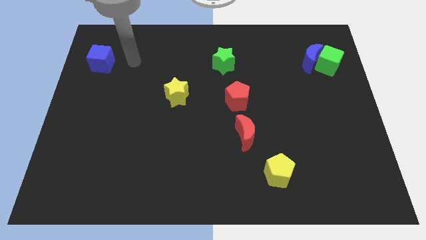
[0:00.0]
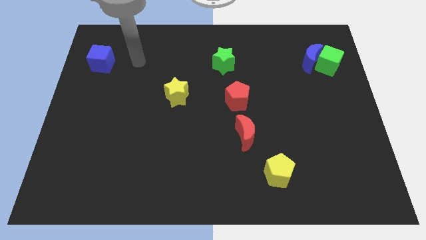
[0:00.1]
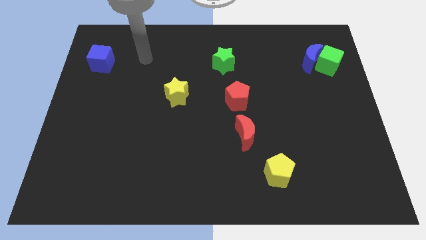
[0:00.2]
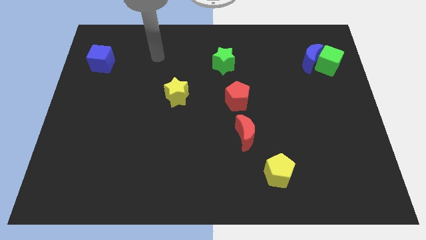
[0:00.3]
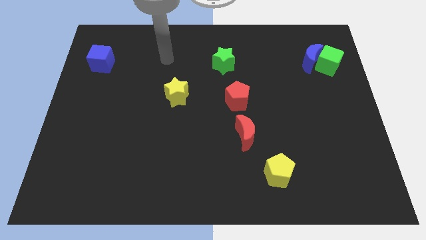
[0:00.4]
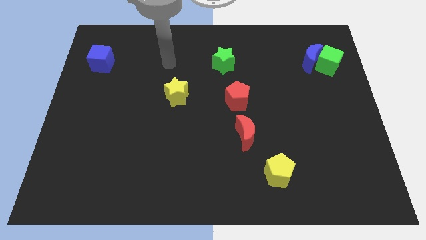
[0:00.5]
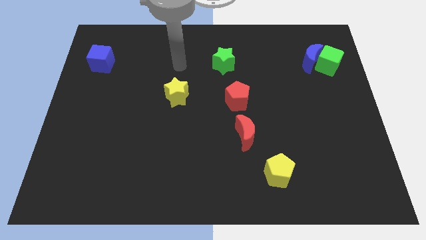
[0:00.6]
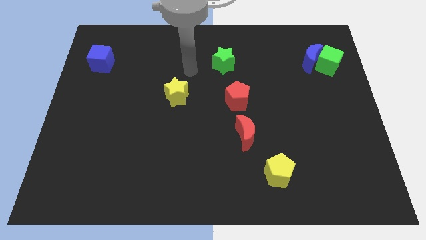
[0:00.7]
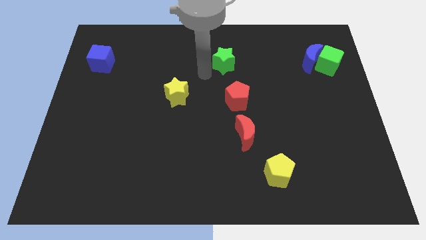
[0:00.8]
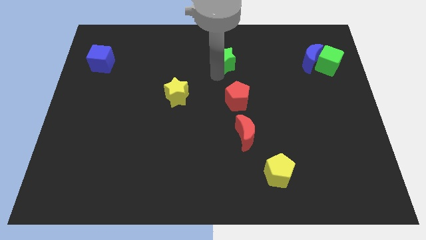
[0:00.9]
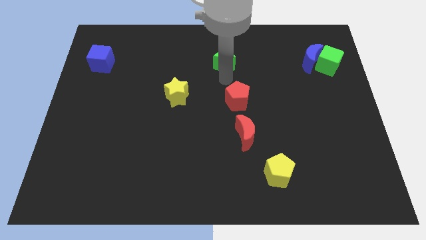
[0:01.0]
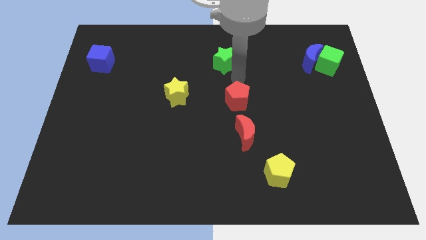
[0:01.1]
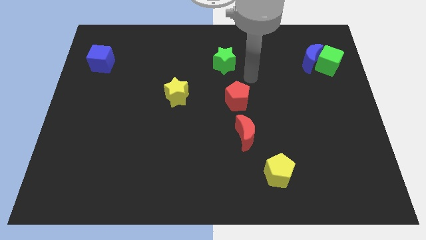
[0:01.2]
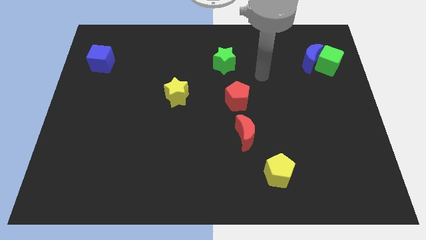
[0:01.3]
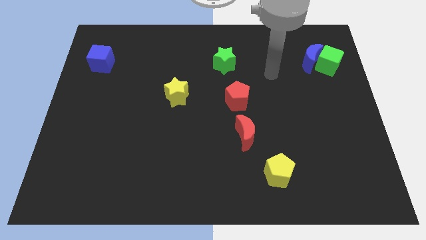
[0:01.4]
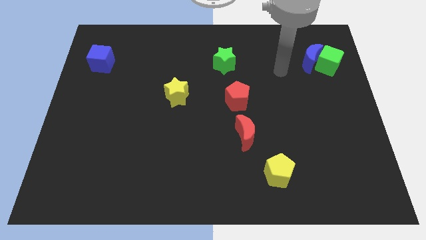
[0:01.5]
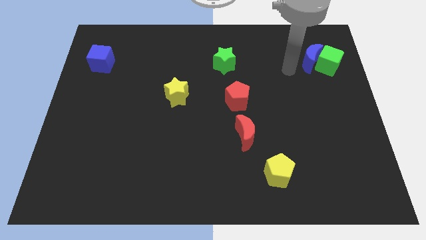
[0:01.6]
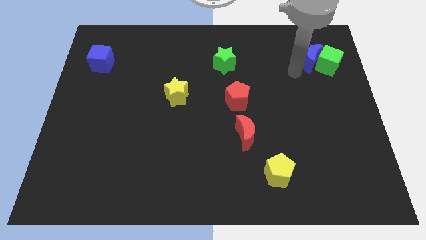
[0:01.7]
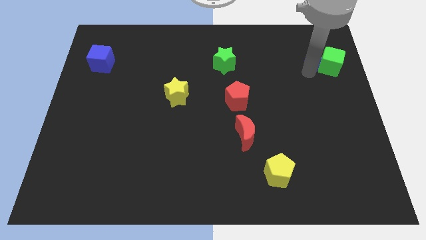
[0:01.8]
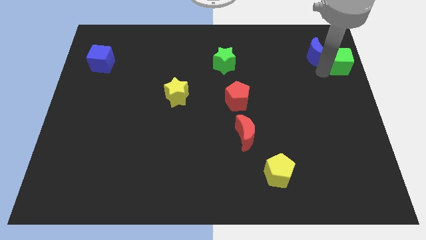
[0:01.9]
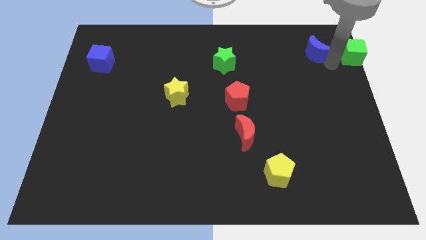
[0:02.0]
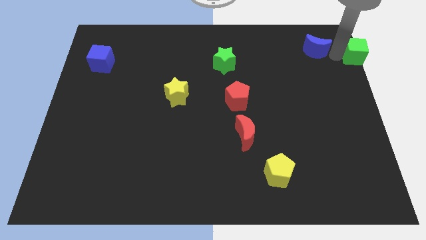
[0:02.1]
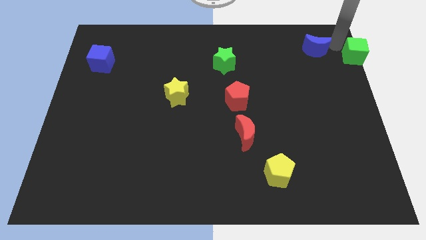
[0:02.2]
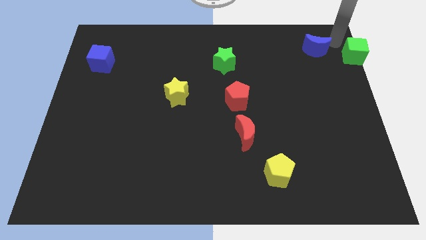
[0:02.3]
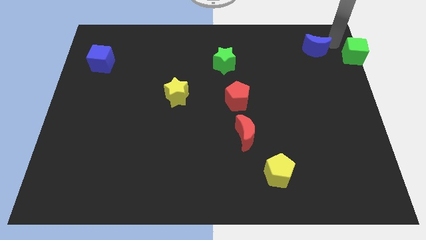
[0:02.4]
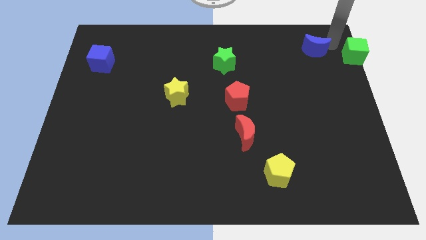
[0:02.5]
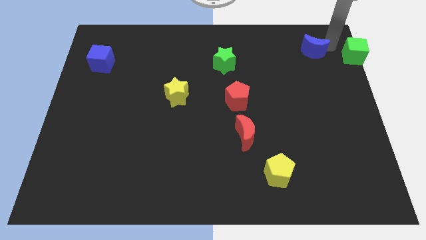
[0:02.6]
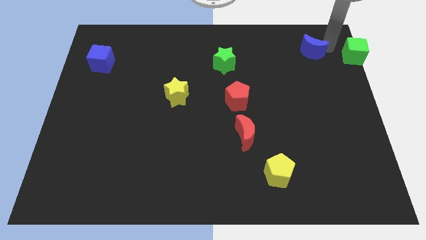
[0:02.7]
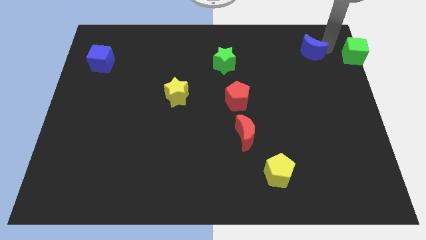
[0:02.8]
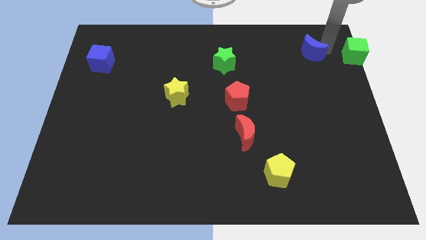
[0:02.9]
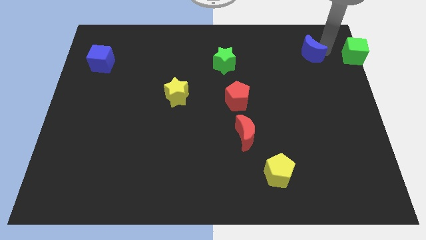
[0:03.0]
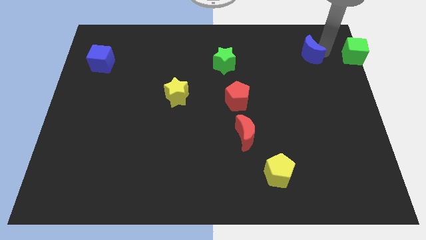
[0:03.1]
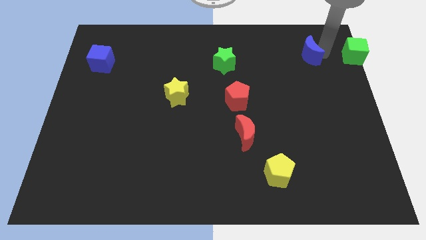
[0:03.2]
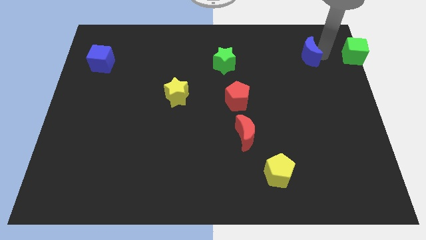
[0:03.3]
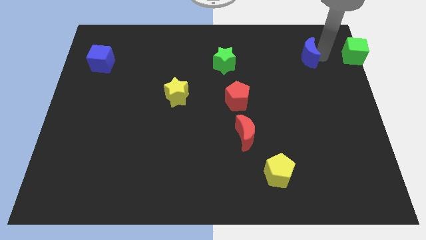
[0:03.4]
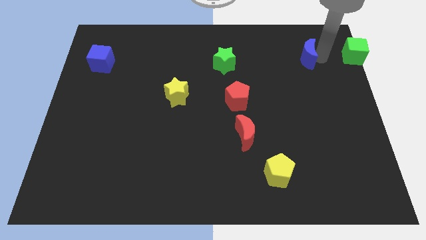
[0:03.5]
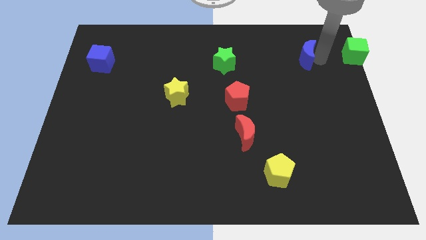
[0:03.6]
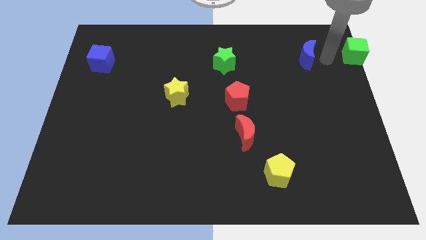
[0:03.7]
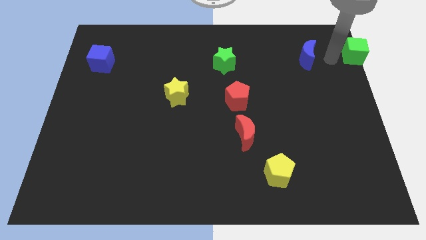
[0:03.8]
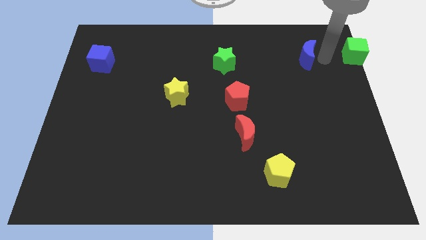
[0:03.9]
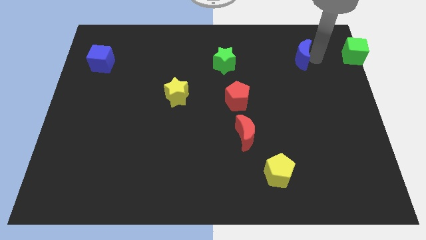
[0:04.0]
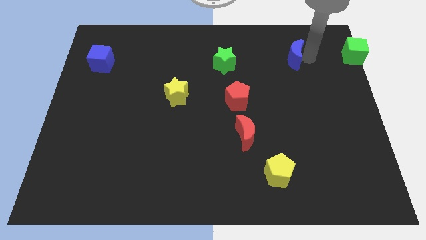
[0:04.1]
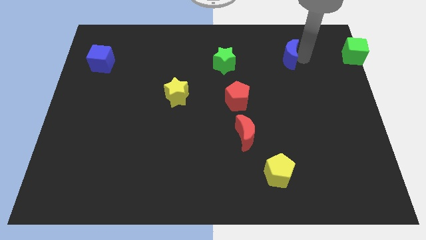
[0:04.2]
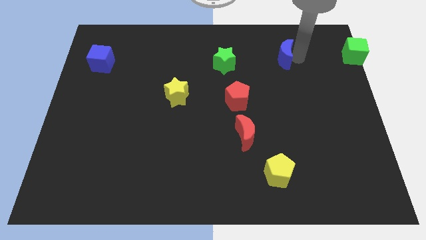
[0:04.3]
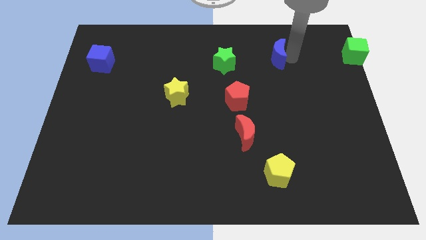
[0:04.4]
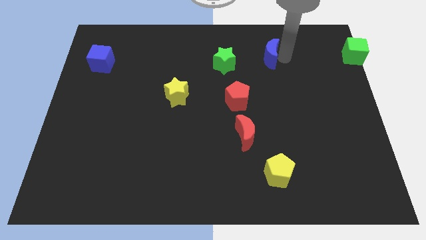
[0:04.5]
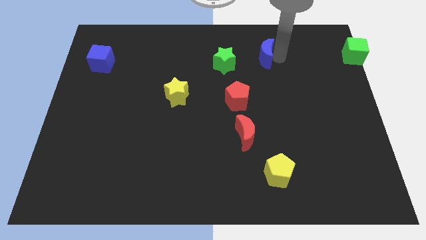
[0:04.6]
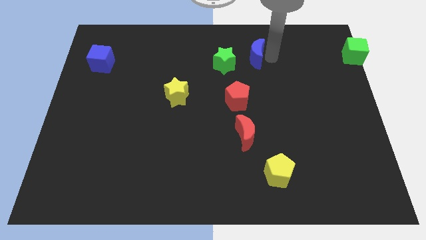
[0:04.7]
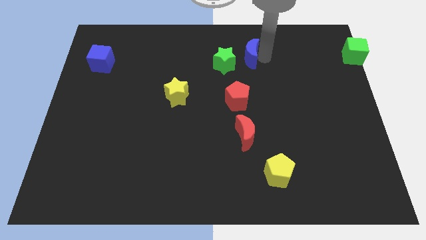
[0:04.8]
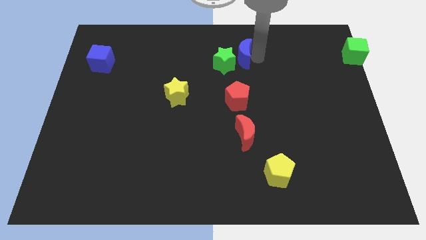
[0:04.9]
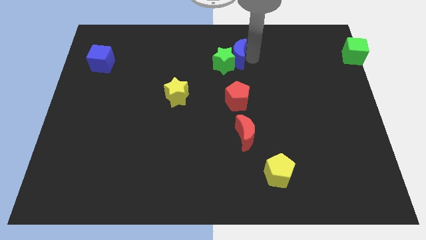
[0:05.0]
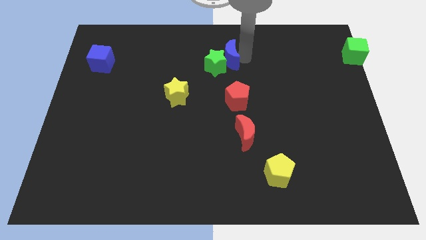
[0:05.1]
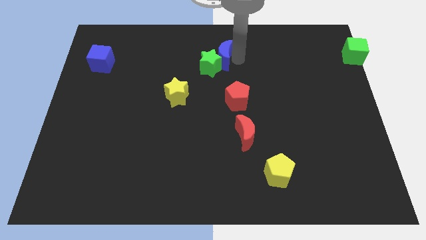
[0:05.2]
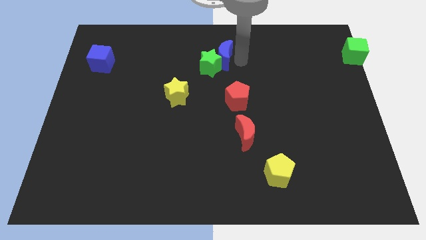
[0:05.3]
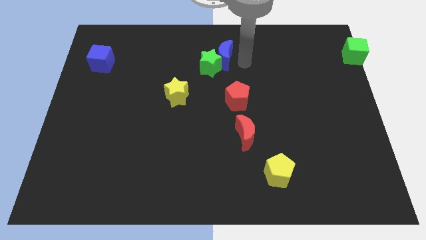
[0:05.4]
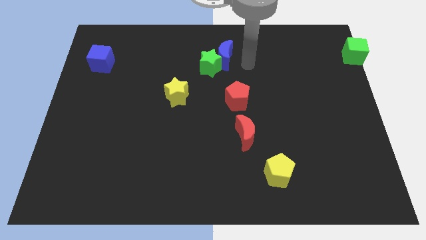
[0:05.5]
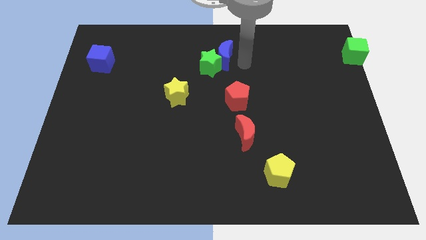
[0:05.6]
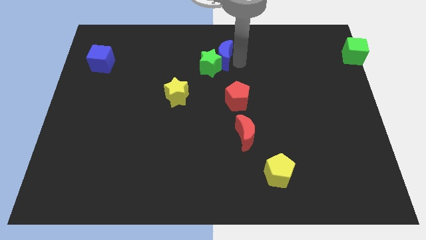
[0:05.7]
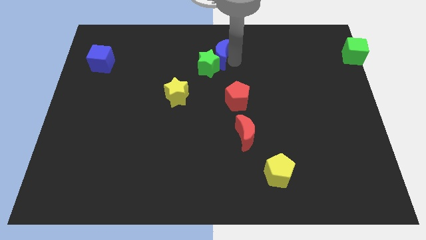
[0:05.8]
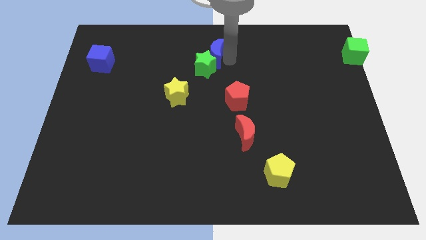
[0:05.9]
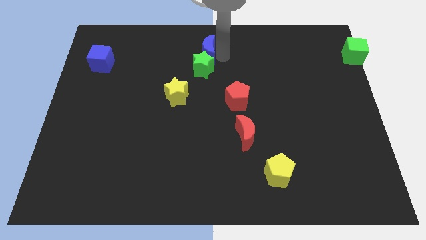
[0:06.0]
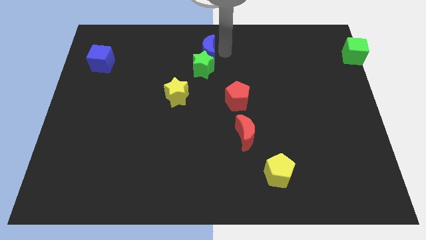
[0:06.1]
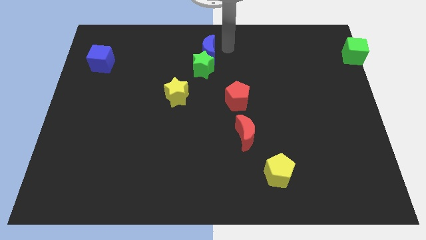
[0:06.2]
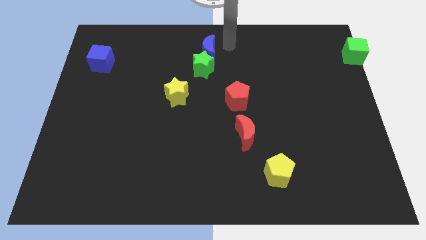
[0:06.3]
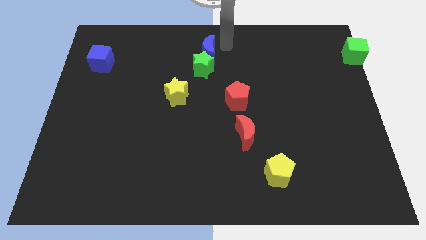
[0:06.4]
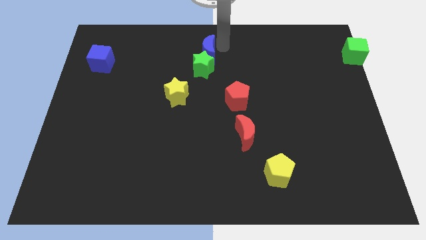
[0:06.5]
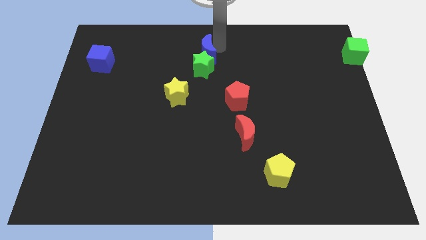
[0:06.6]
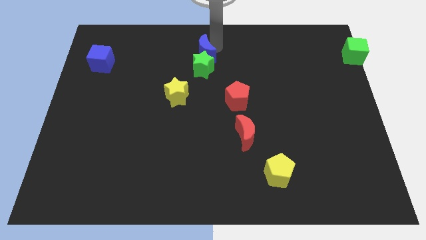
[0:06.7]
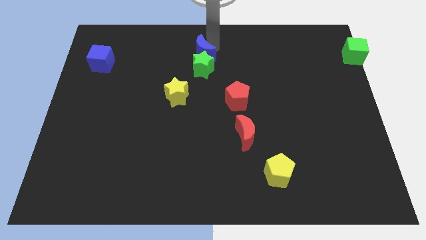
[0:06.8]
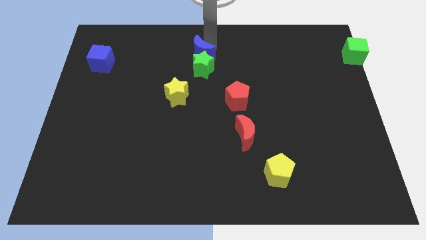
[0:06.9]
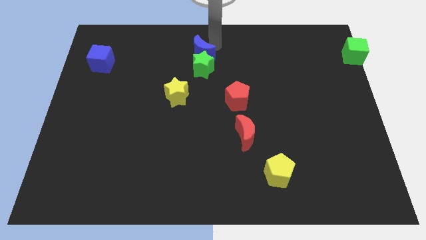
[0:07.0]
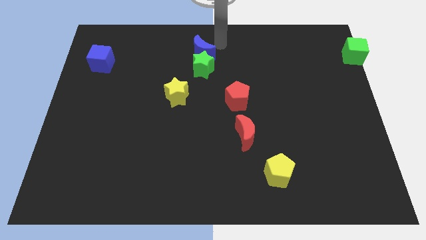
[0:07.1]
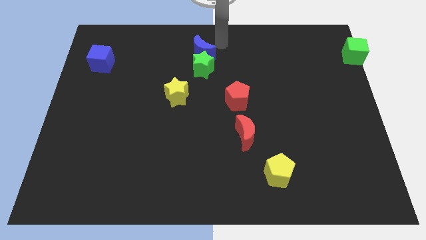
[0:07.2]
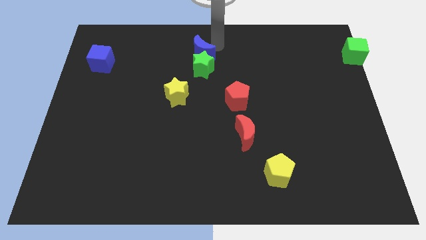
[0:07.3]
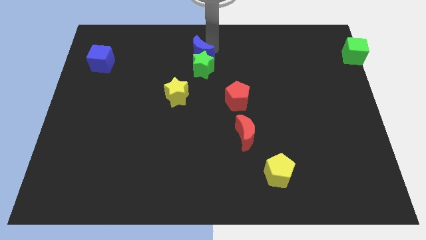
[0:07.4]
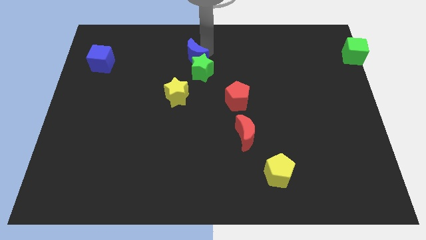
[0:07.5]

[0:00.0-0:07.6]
put the blue moon to the top side of the yellow star

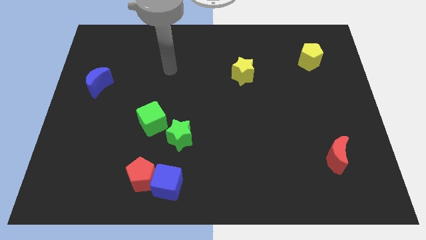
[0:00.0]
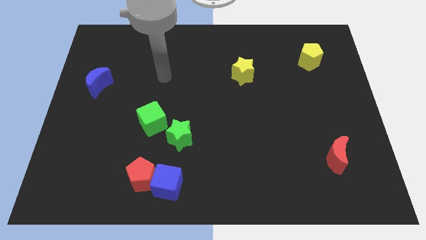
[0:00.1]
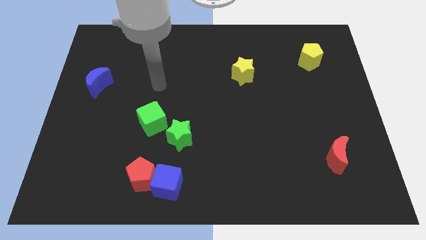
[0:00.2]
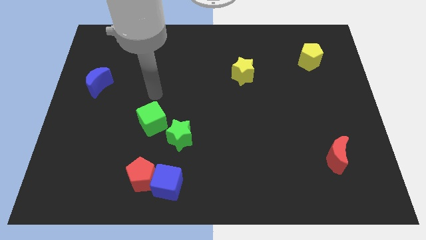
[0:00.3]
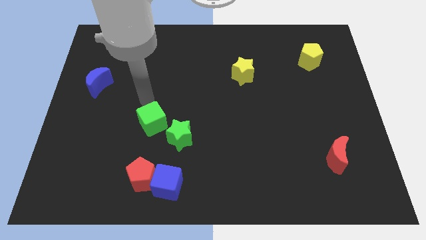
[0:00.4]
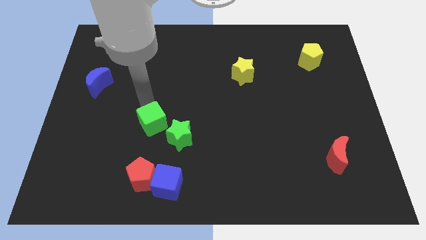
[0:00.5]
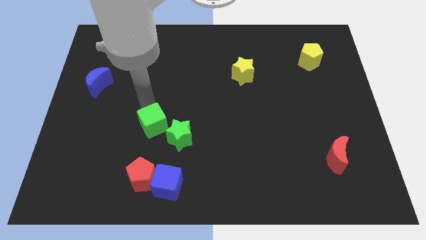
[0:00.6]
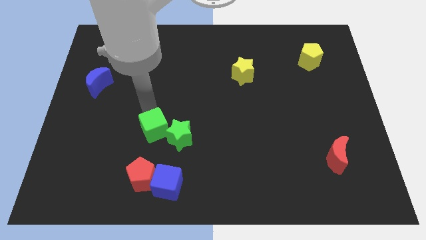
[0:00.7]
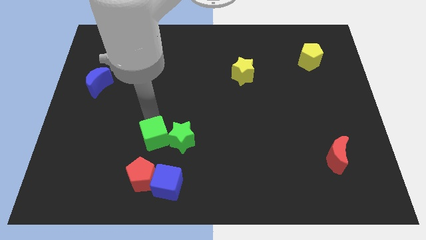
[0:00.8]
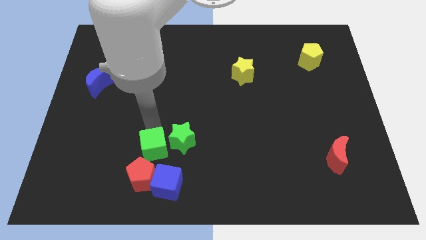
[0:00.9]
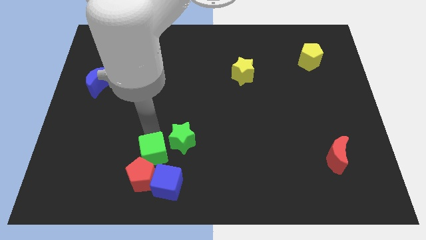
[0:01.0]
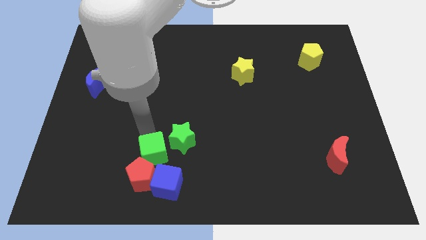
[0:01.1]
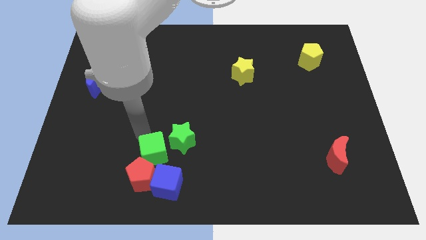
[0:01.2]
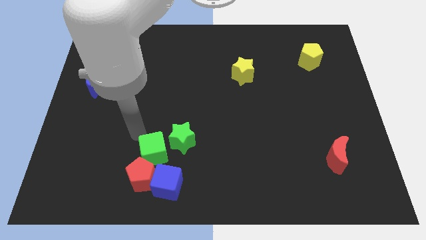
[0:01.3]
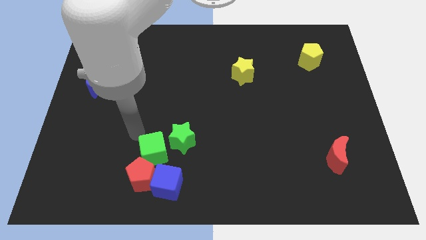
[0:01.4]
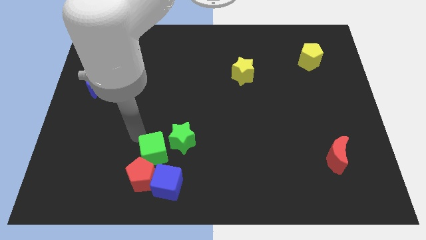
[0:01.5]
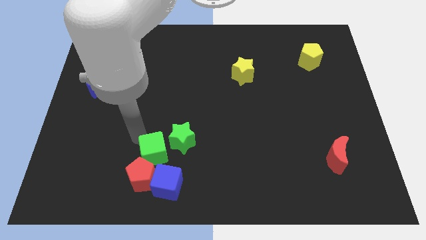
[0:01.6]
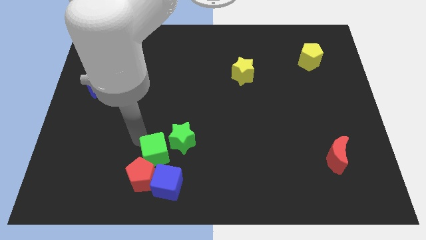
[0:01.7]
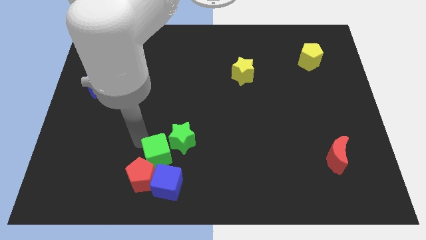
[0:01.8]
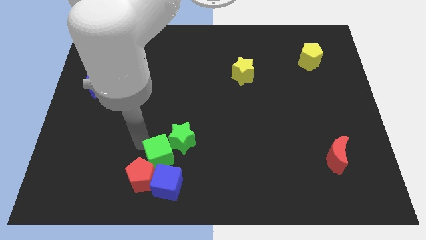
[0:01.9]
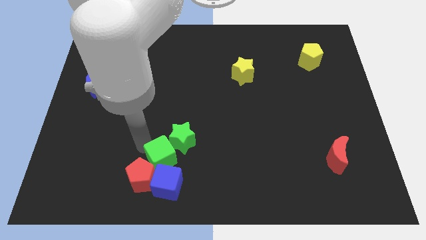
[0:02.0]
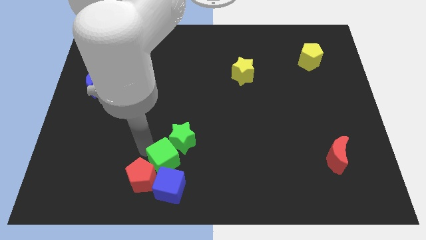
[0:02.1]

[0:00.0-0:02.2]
move the green cube to the right side of the red pentagon
